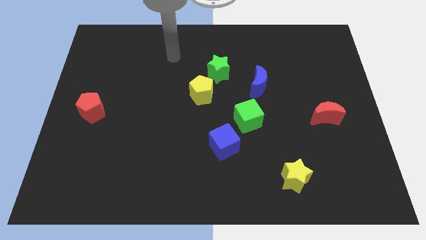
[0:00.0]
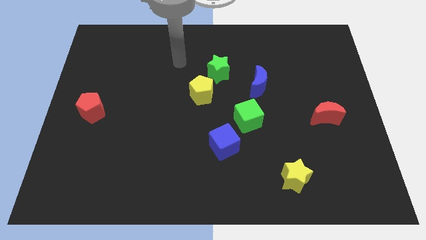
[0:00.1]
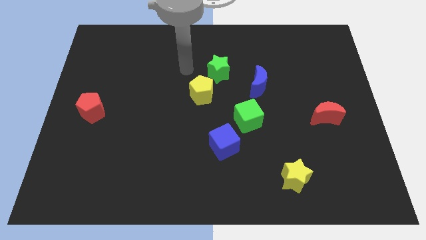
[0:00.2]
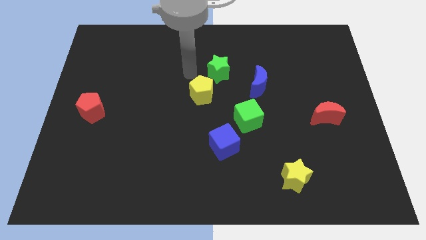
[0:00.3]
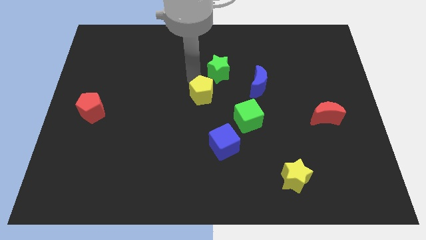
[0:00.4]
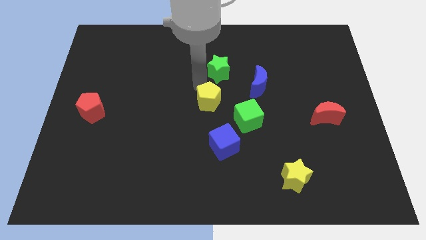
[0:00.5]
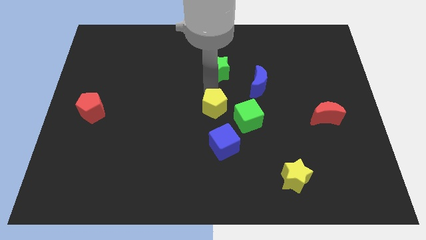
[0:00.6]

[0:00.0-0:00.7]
separate the green star from the yellow pentagon

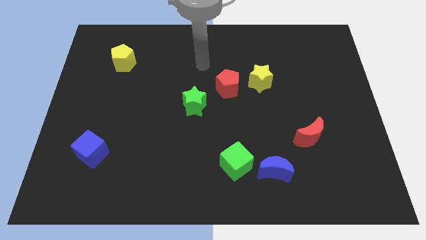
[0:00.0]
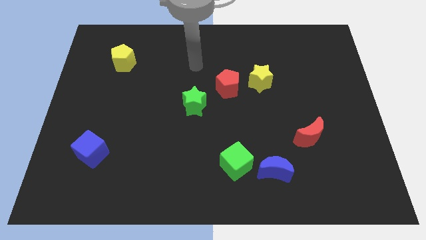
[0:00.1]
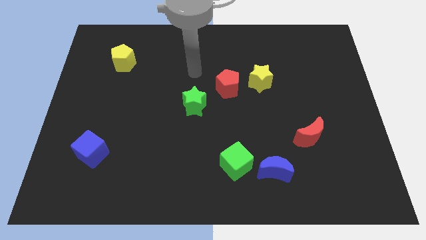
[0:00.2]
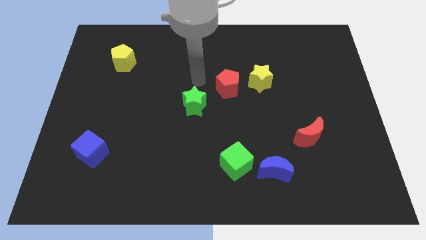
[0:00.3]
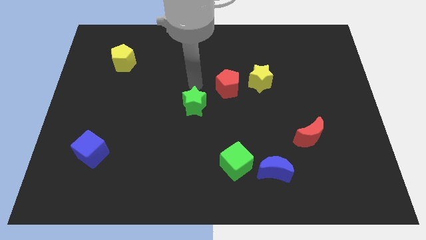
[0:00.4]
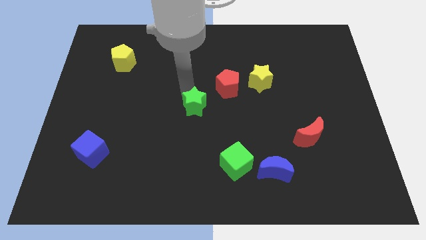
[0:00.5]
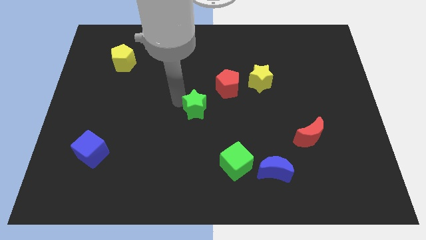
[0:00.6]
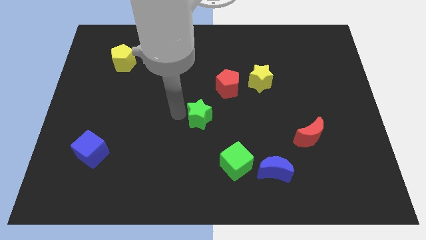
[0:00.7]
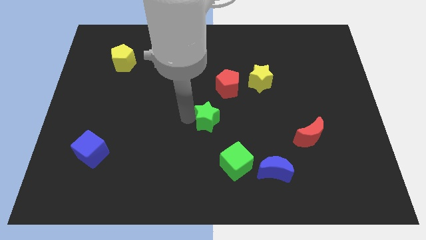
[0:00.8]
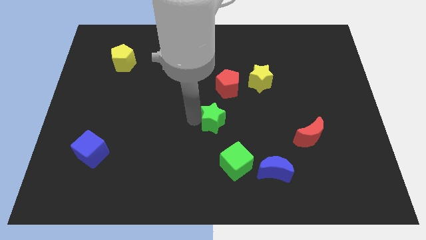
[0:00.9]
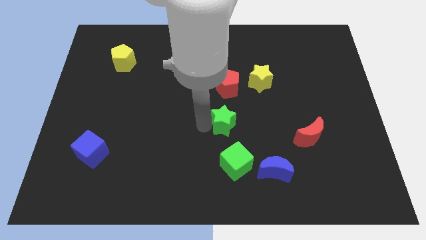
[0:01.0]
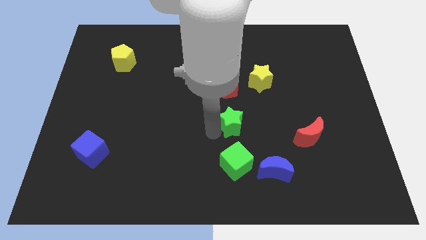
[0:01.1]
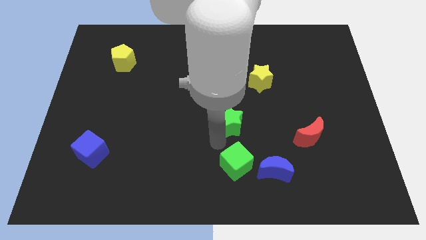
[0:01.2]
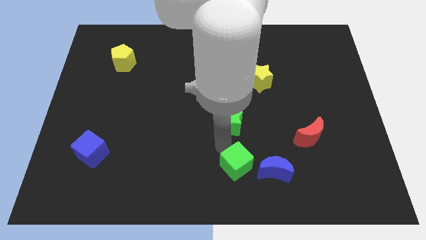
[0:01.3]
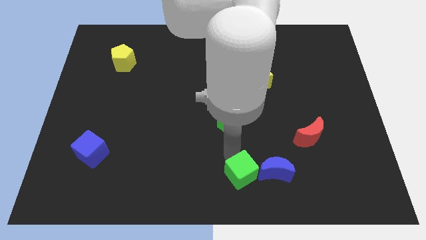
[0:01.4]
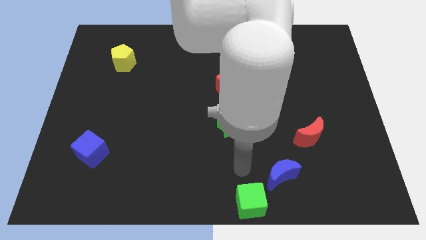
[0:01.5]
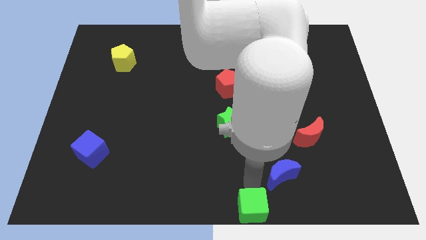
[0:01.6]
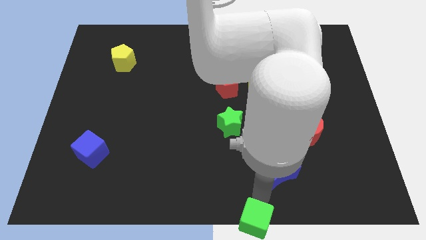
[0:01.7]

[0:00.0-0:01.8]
pull the blue moon apart from the green cube

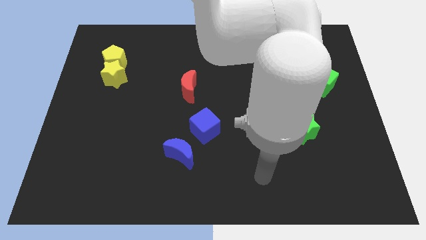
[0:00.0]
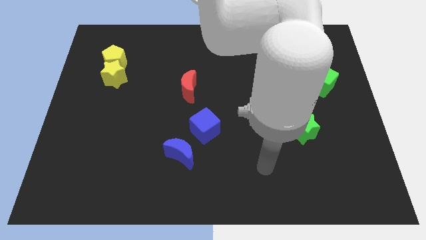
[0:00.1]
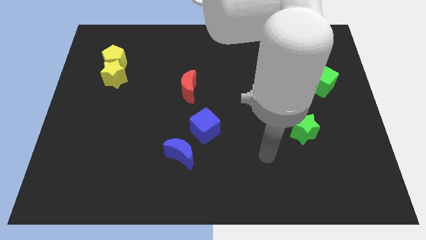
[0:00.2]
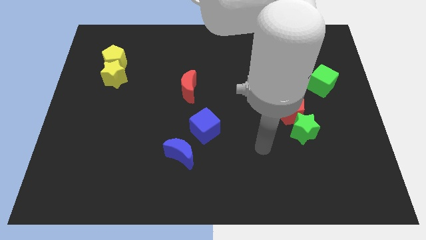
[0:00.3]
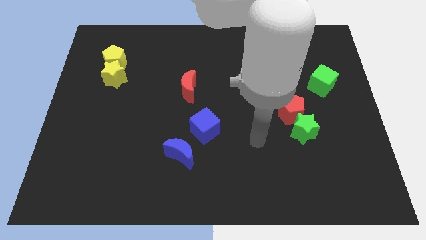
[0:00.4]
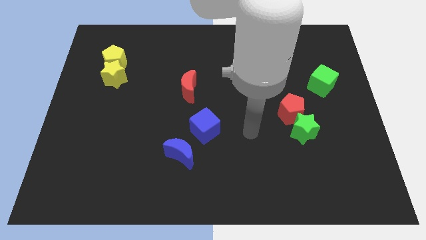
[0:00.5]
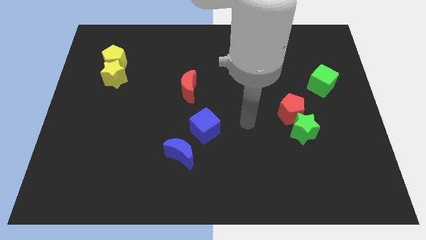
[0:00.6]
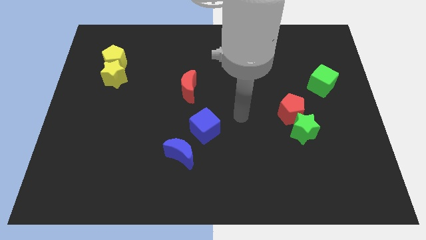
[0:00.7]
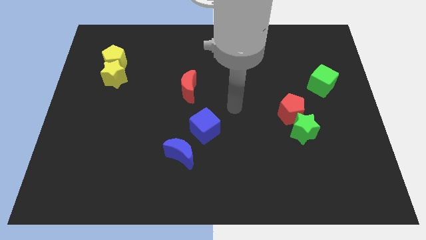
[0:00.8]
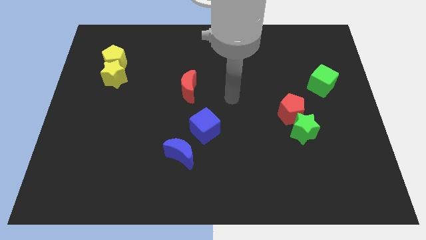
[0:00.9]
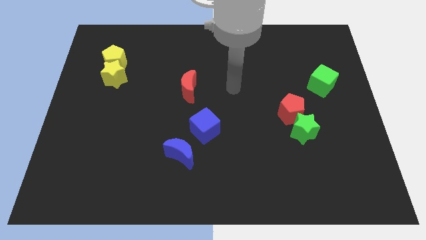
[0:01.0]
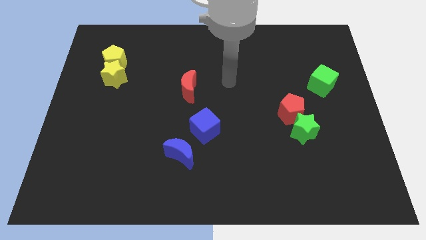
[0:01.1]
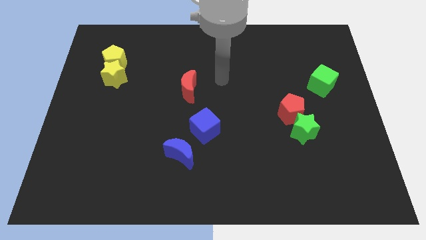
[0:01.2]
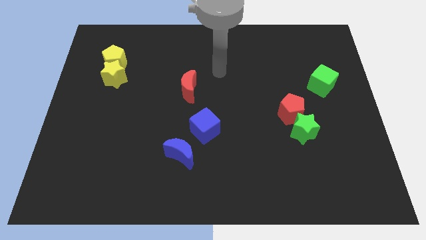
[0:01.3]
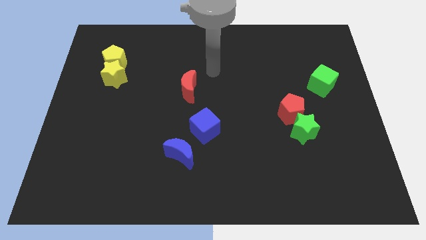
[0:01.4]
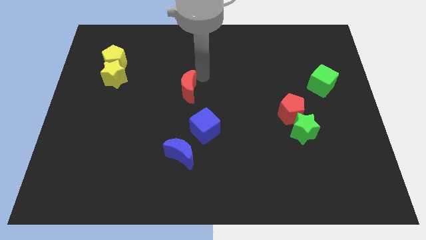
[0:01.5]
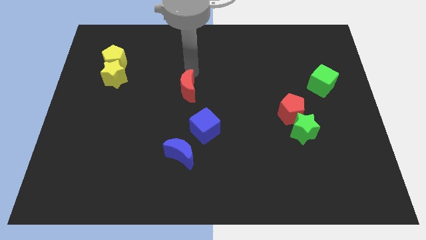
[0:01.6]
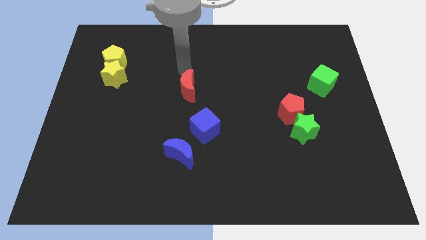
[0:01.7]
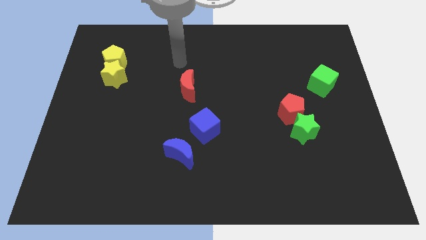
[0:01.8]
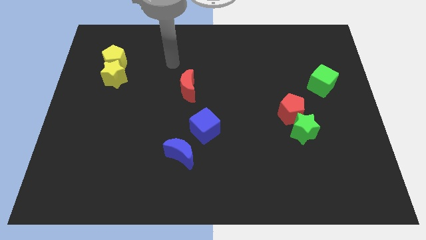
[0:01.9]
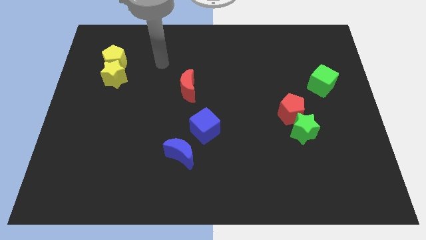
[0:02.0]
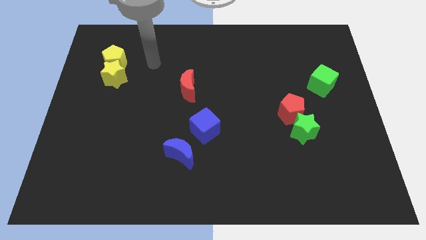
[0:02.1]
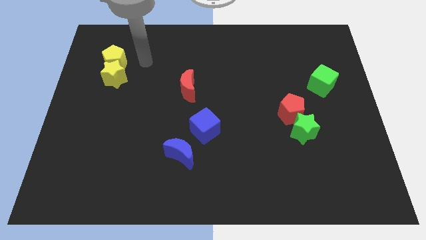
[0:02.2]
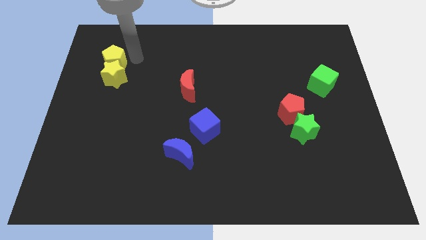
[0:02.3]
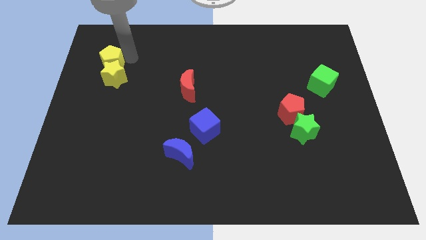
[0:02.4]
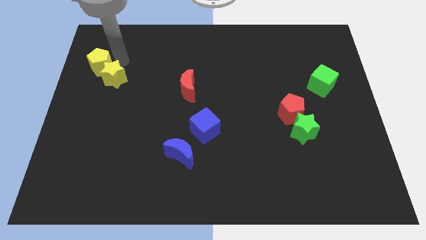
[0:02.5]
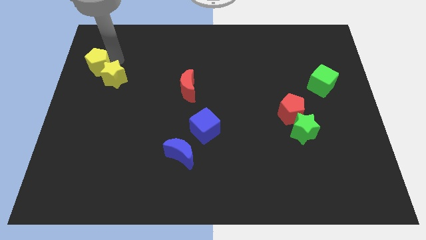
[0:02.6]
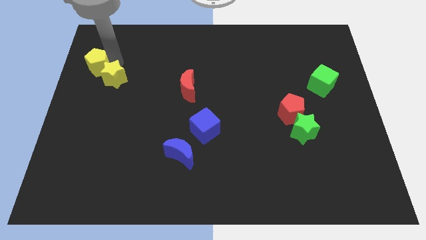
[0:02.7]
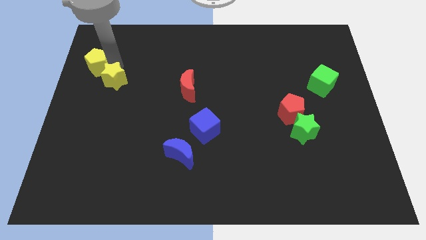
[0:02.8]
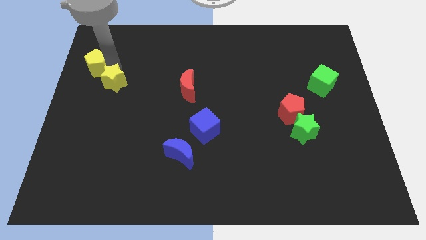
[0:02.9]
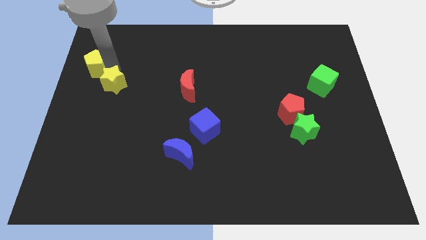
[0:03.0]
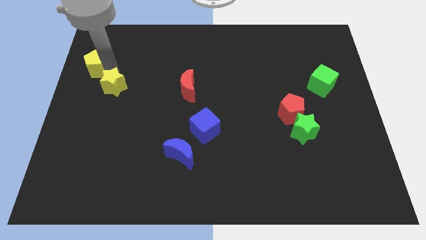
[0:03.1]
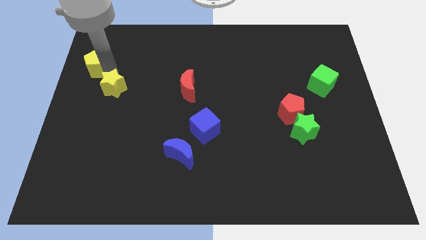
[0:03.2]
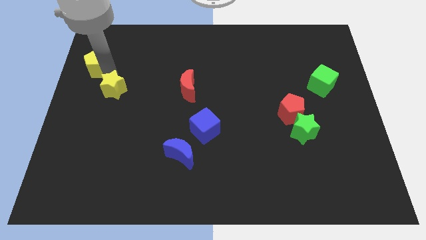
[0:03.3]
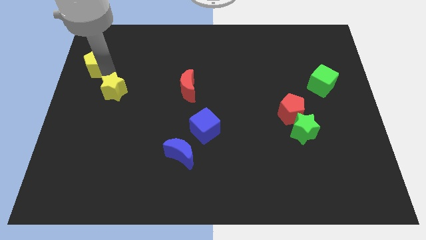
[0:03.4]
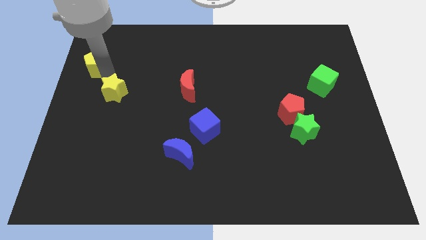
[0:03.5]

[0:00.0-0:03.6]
pull the yellow star apart from the yellow pentagon

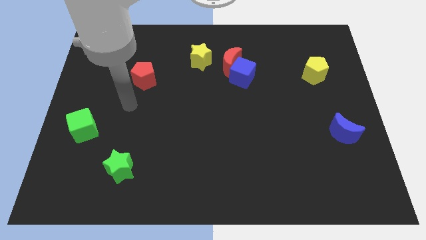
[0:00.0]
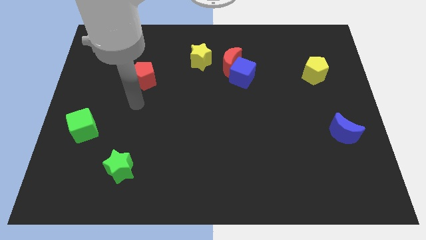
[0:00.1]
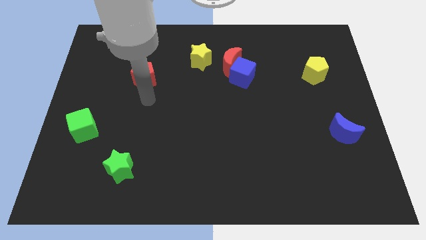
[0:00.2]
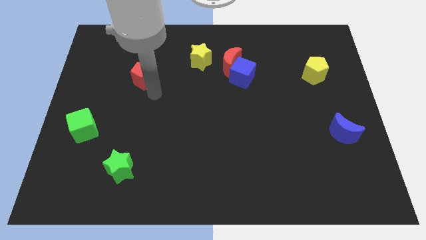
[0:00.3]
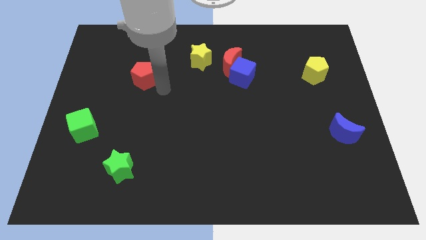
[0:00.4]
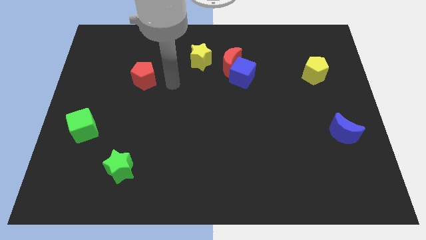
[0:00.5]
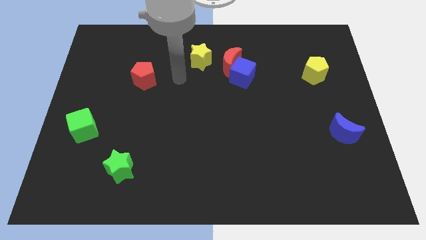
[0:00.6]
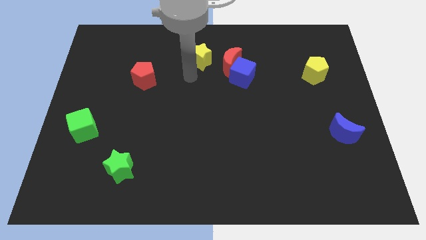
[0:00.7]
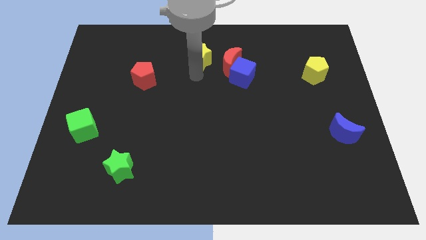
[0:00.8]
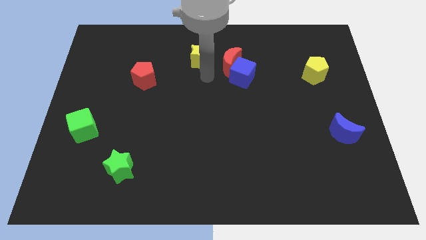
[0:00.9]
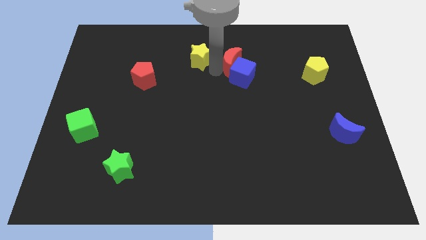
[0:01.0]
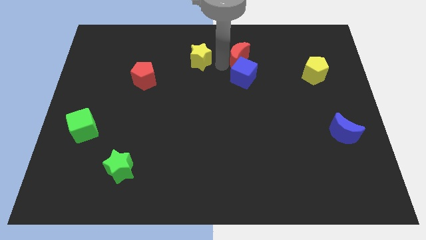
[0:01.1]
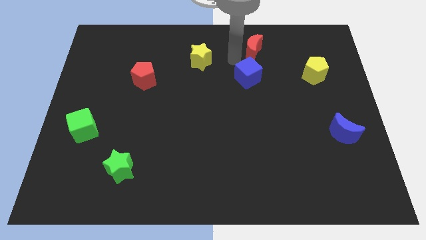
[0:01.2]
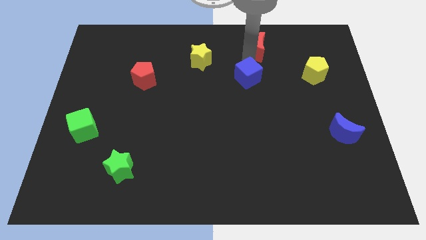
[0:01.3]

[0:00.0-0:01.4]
pull the blue cube apart from the red moon

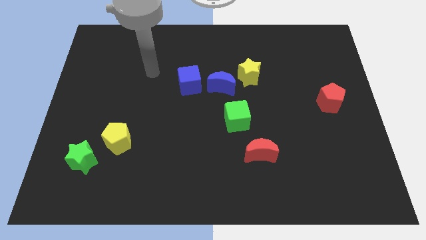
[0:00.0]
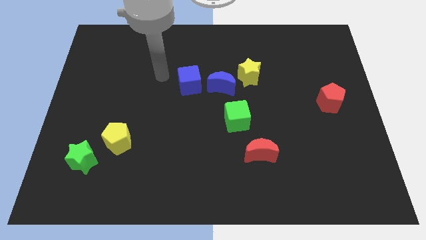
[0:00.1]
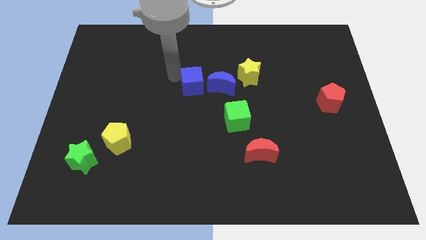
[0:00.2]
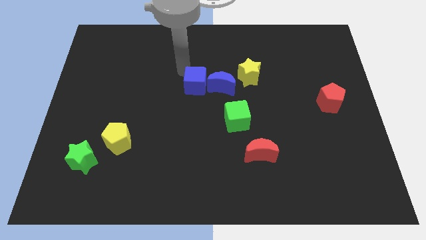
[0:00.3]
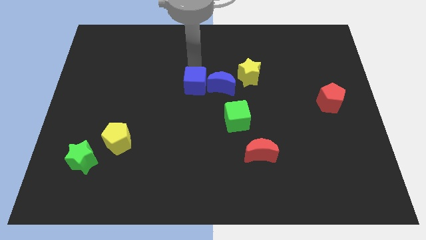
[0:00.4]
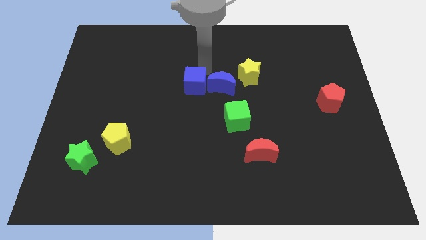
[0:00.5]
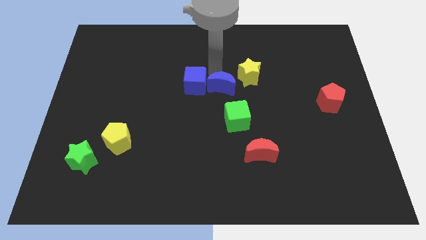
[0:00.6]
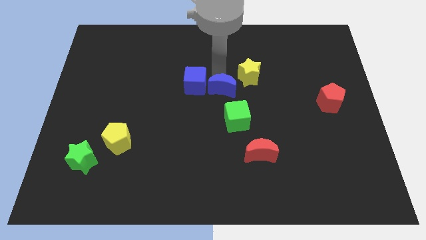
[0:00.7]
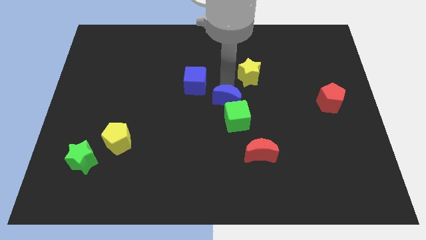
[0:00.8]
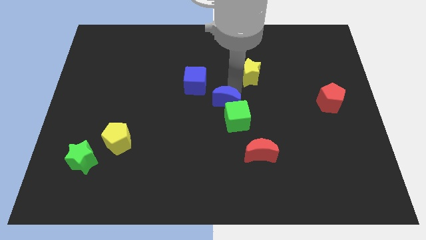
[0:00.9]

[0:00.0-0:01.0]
move the yellow star away from the blue moon

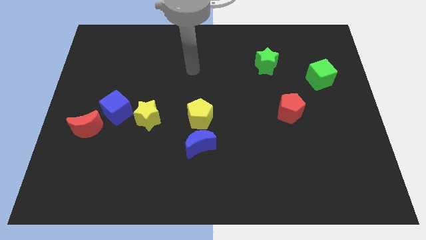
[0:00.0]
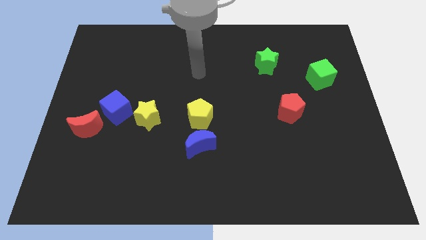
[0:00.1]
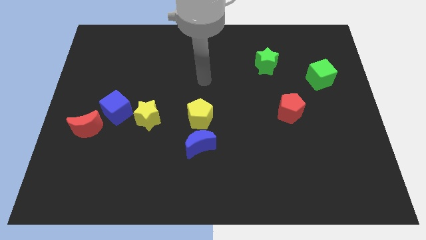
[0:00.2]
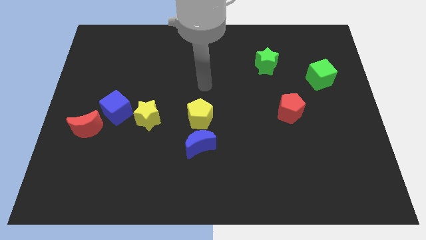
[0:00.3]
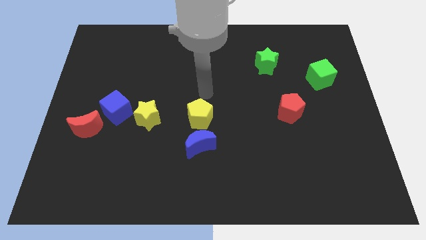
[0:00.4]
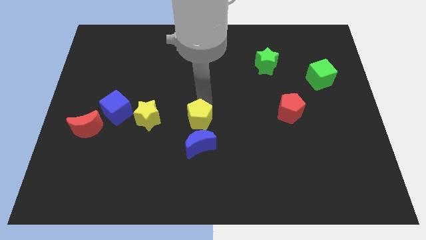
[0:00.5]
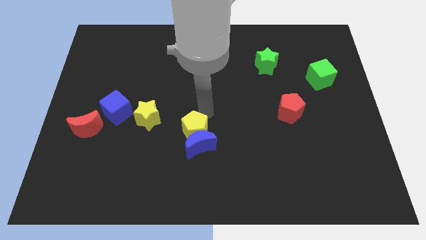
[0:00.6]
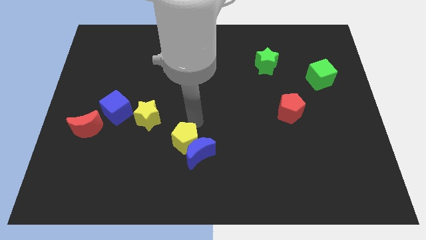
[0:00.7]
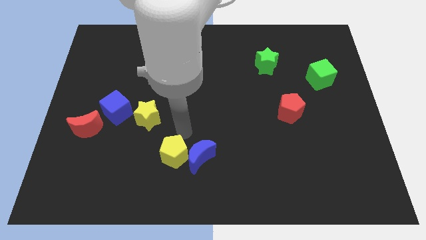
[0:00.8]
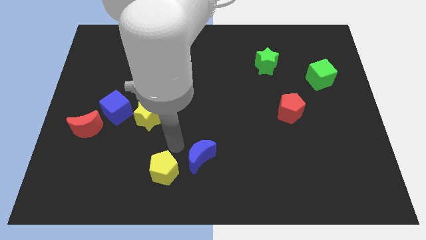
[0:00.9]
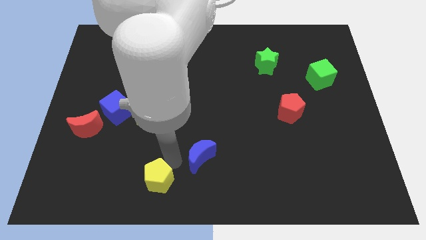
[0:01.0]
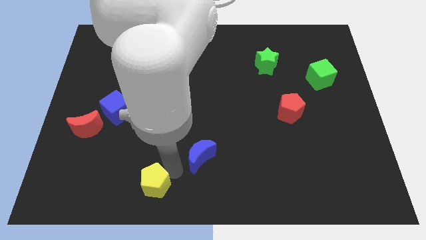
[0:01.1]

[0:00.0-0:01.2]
pull the blue moon apart from the yellow pentagon
